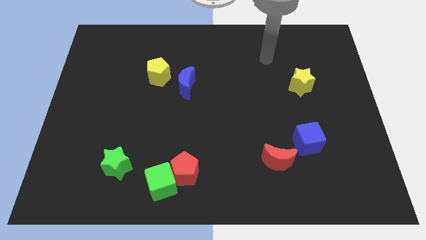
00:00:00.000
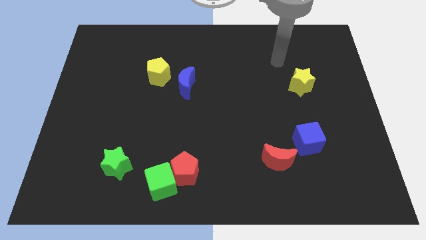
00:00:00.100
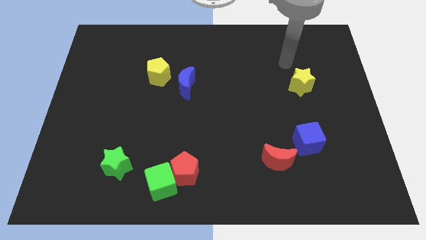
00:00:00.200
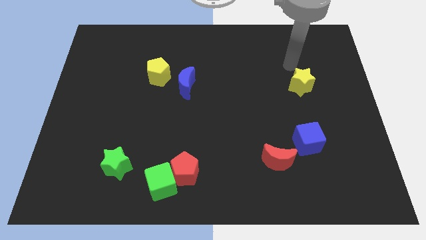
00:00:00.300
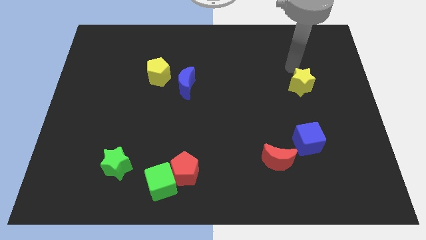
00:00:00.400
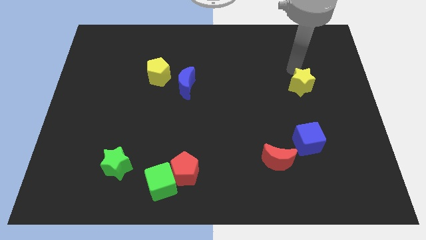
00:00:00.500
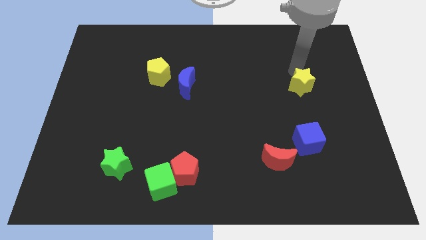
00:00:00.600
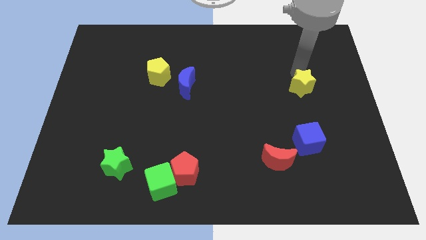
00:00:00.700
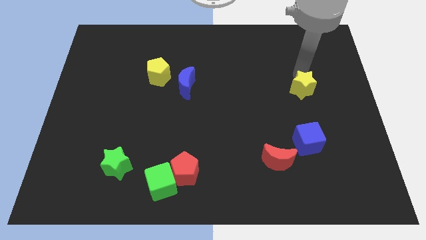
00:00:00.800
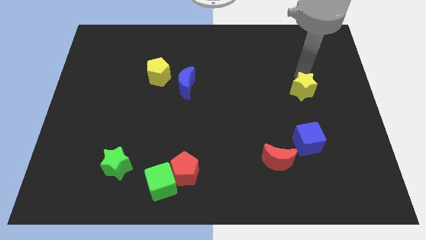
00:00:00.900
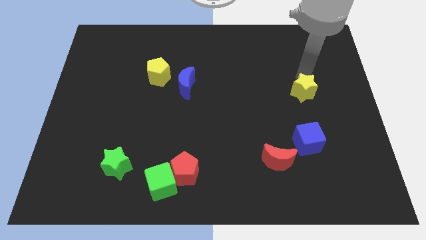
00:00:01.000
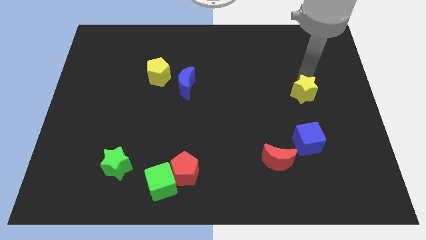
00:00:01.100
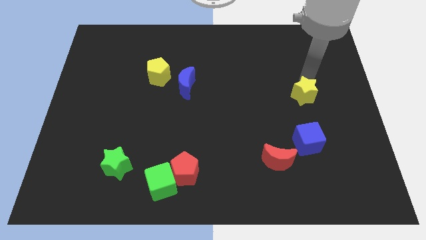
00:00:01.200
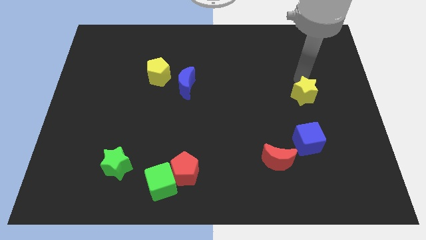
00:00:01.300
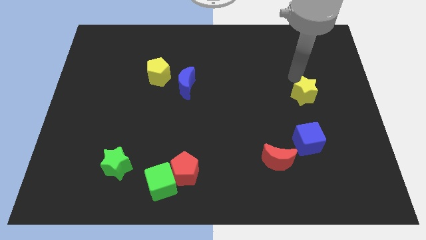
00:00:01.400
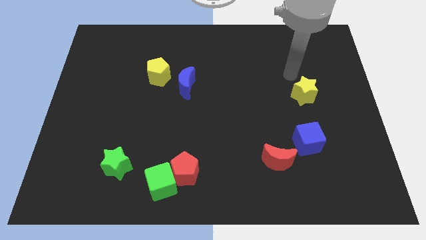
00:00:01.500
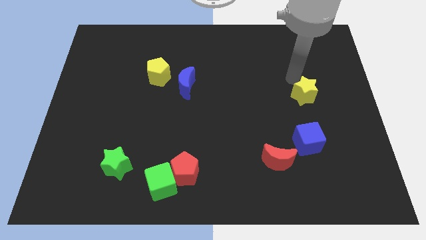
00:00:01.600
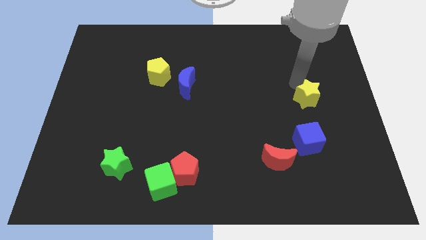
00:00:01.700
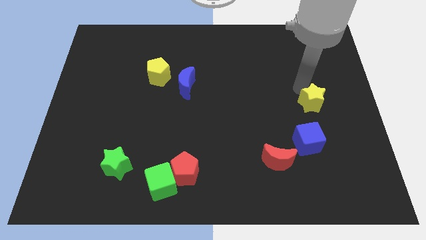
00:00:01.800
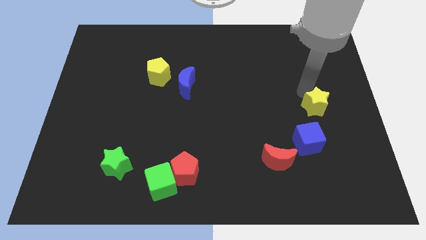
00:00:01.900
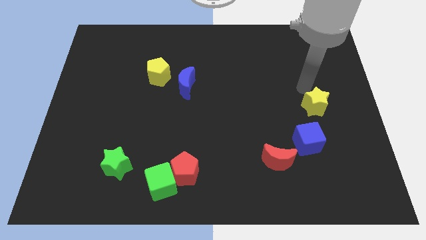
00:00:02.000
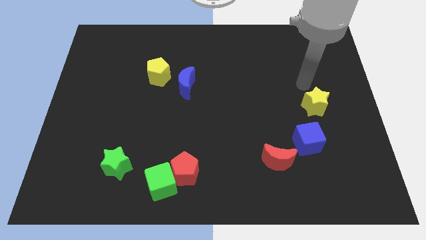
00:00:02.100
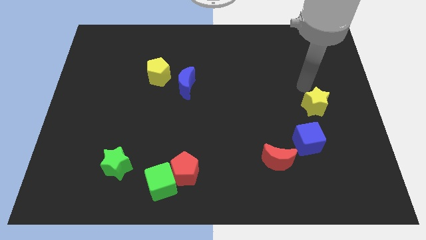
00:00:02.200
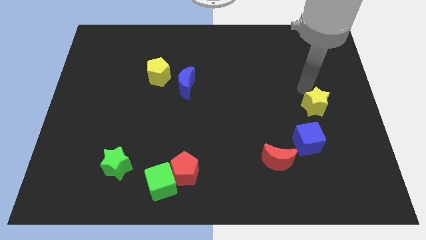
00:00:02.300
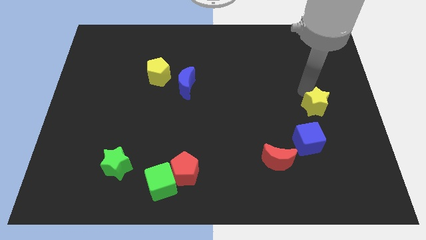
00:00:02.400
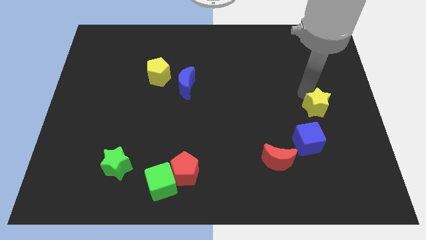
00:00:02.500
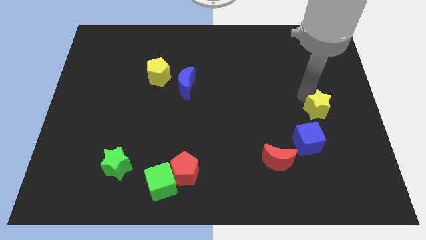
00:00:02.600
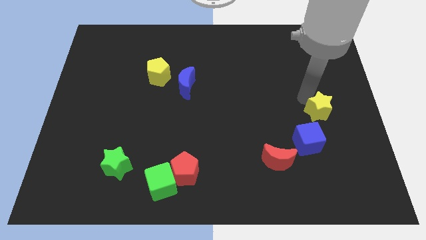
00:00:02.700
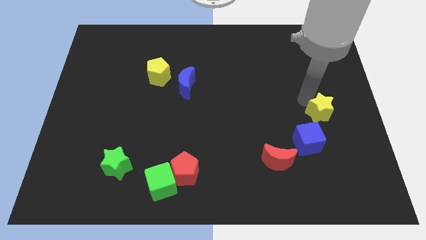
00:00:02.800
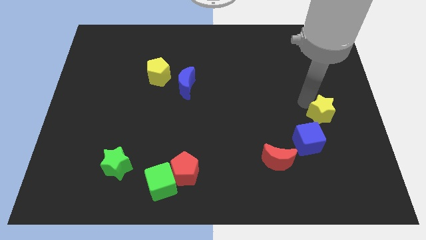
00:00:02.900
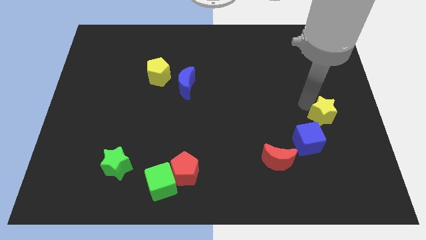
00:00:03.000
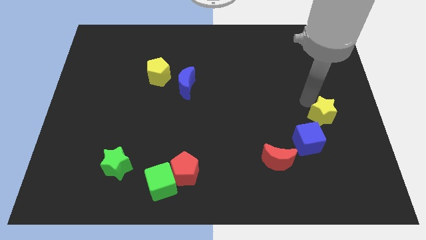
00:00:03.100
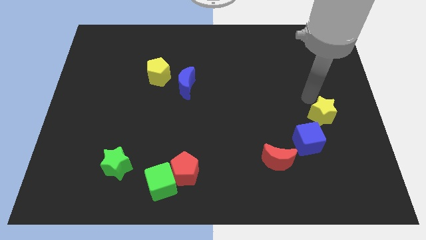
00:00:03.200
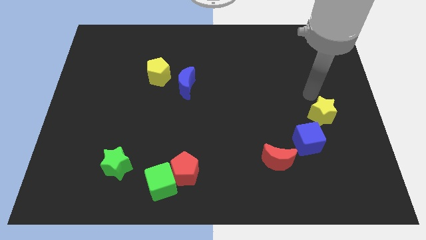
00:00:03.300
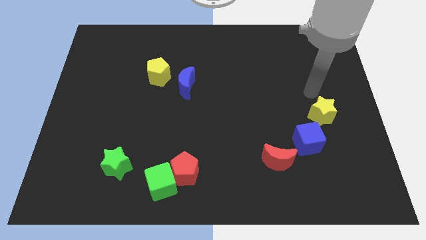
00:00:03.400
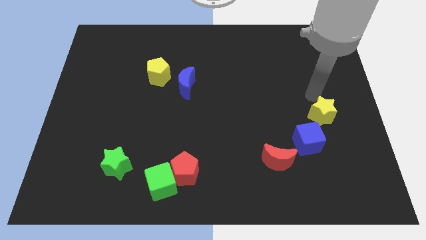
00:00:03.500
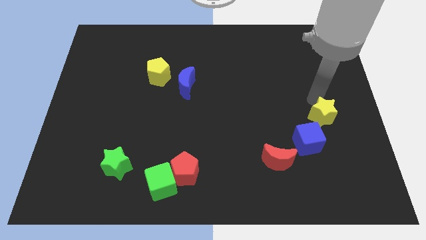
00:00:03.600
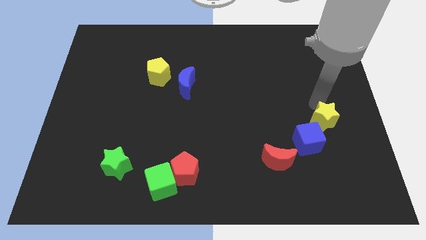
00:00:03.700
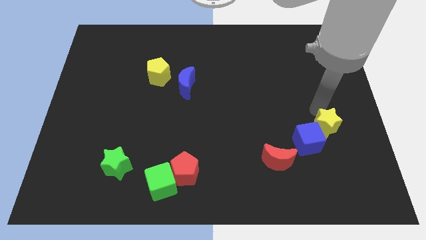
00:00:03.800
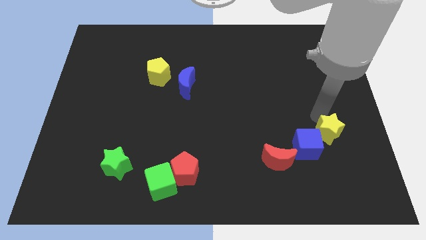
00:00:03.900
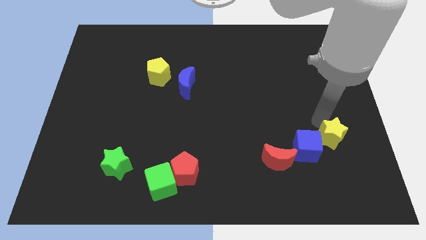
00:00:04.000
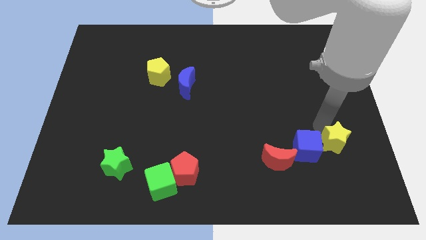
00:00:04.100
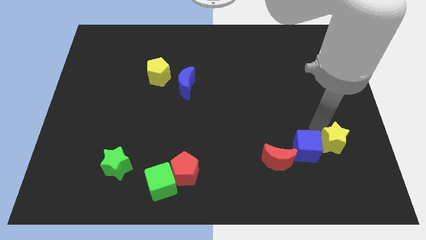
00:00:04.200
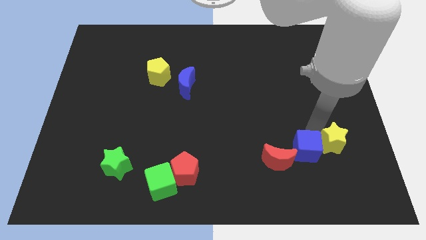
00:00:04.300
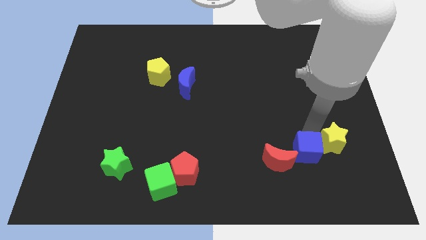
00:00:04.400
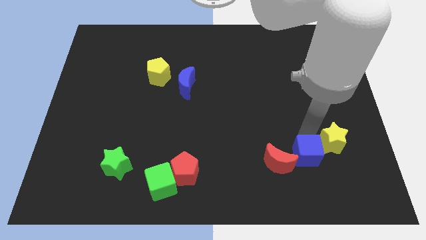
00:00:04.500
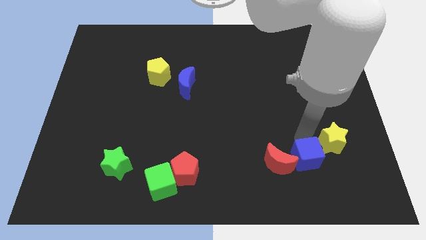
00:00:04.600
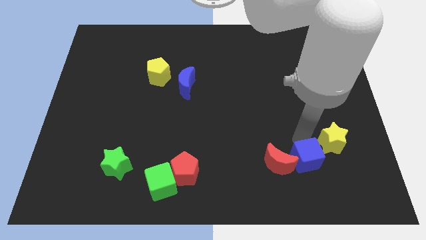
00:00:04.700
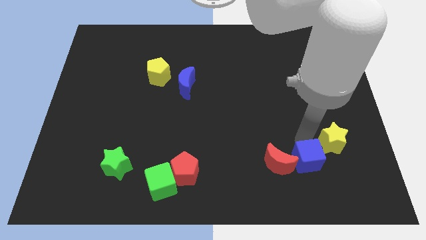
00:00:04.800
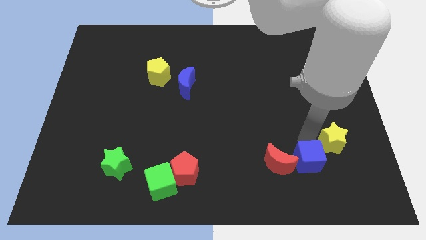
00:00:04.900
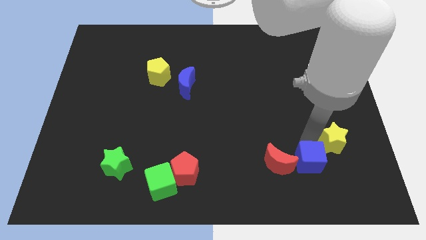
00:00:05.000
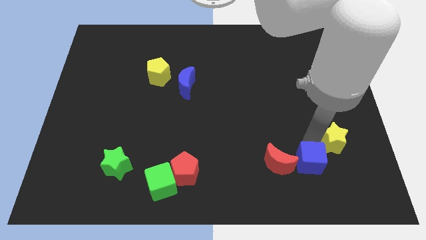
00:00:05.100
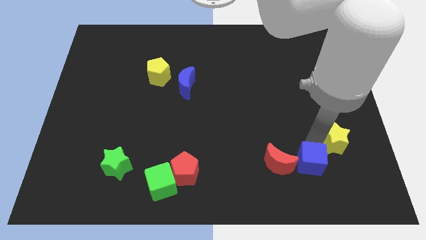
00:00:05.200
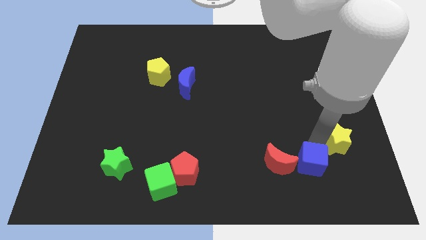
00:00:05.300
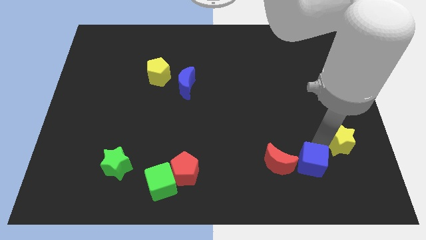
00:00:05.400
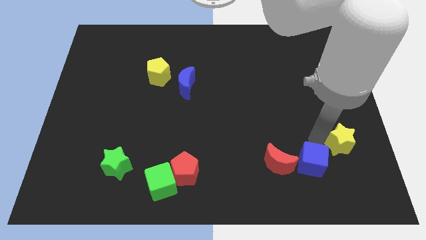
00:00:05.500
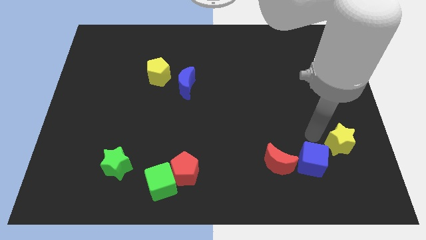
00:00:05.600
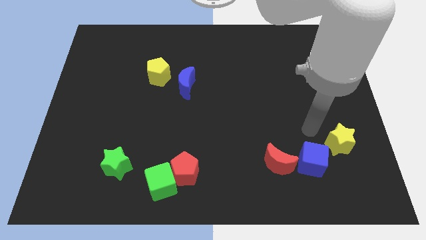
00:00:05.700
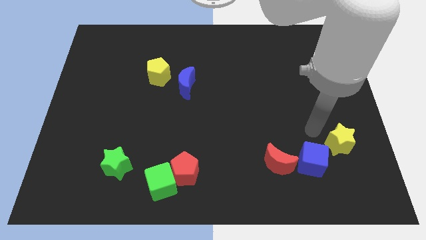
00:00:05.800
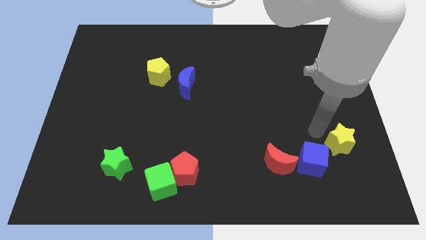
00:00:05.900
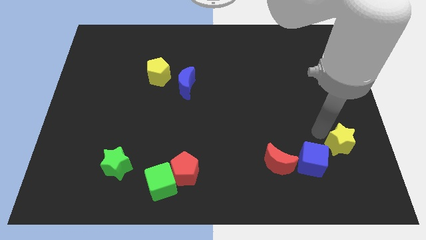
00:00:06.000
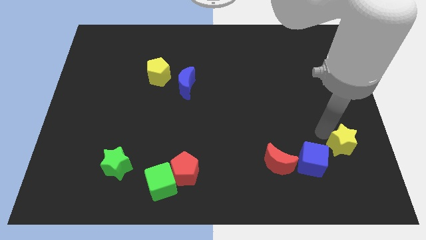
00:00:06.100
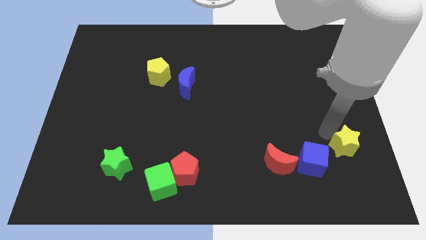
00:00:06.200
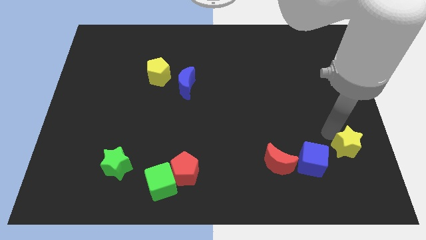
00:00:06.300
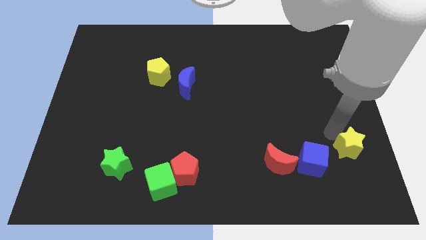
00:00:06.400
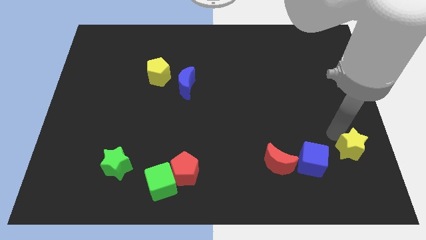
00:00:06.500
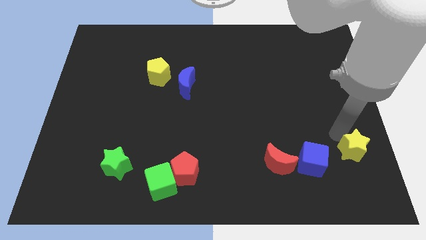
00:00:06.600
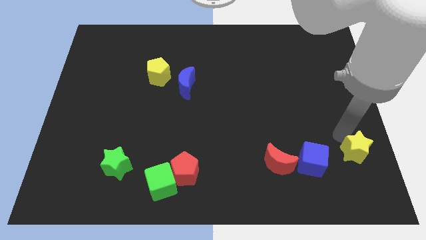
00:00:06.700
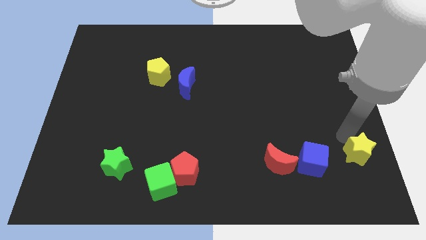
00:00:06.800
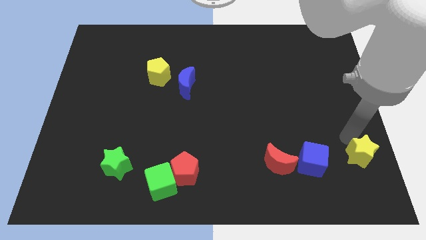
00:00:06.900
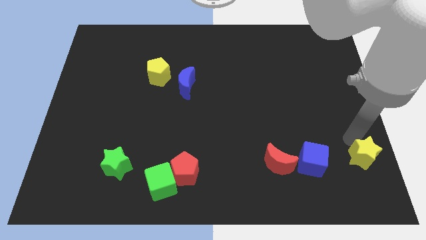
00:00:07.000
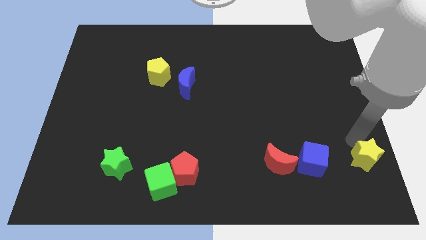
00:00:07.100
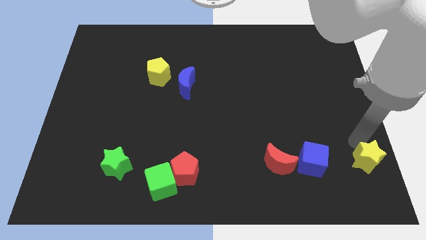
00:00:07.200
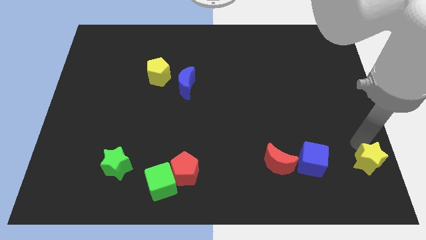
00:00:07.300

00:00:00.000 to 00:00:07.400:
put the yellow star to the lower right corner
